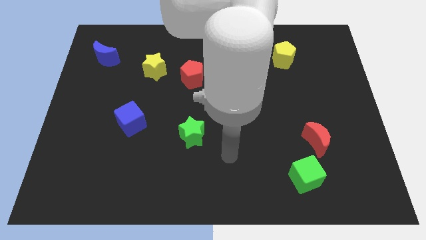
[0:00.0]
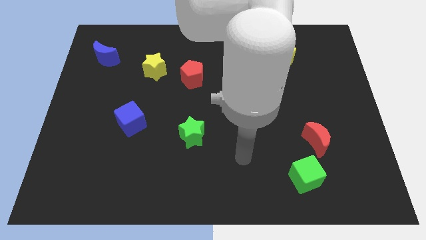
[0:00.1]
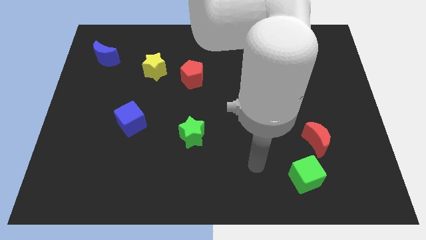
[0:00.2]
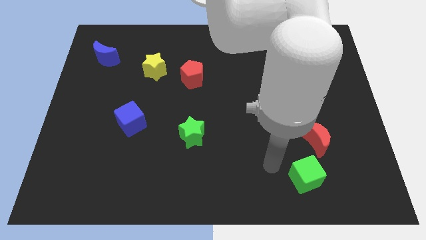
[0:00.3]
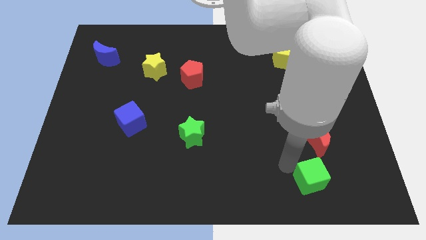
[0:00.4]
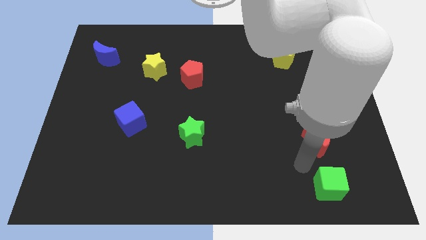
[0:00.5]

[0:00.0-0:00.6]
move the red moon away from the green cube

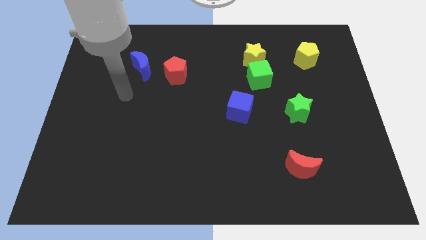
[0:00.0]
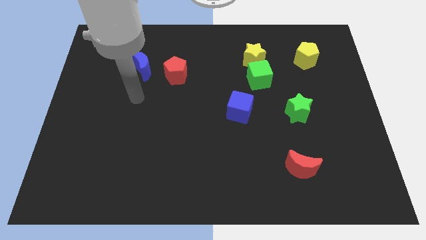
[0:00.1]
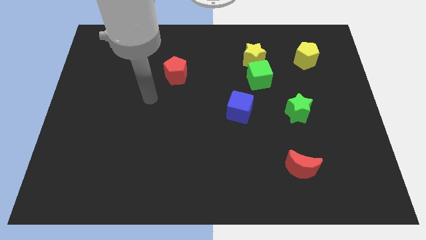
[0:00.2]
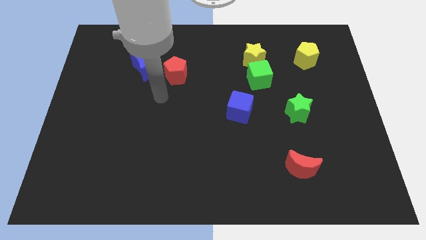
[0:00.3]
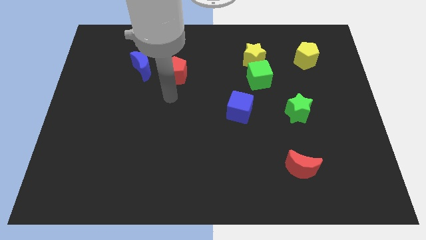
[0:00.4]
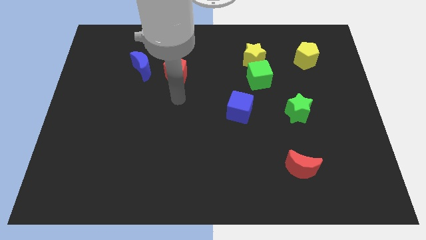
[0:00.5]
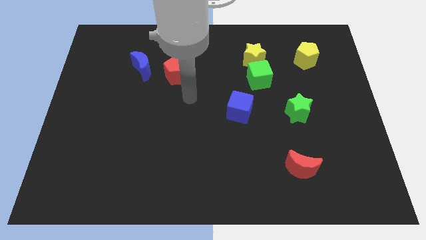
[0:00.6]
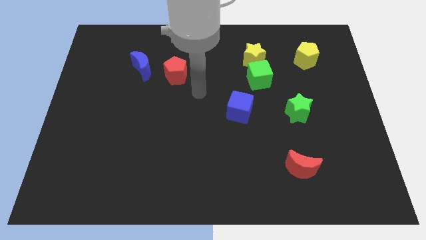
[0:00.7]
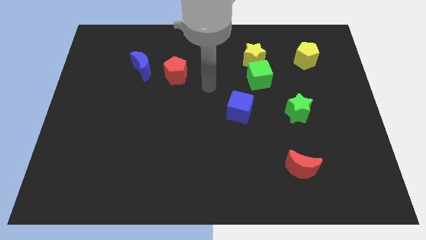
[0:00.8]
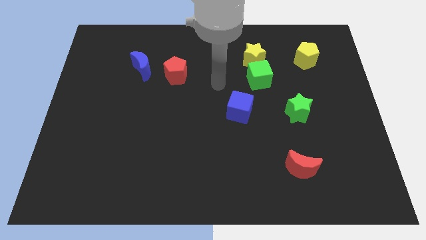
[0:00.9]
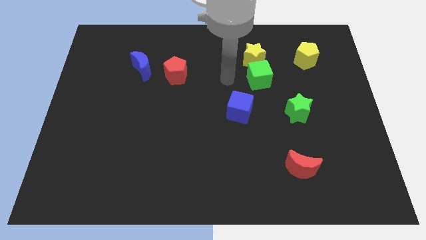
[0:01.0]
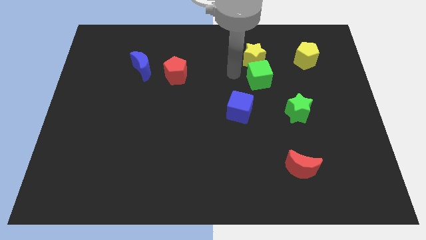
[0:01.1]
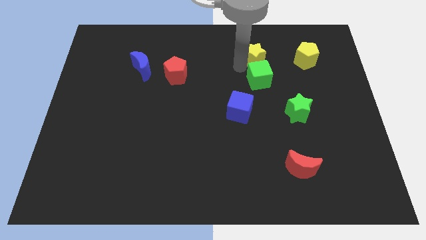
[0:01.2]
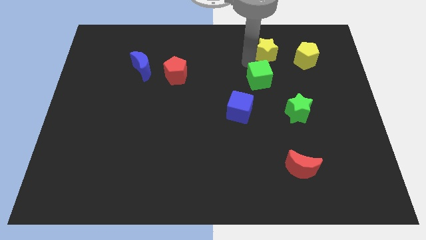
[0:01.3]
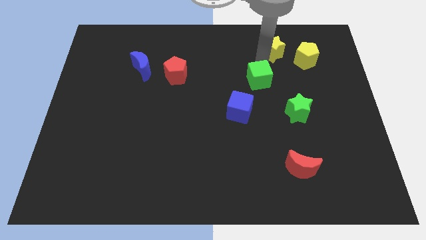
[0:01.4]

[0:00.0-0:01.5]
move the green cube away from the yellow star

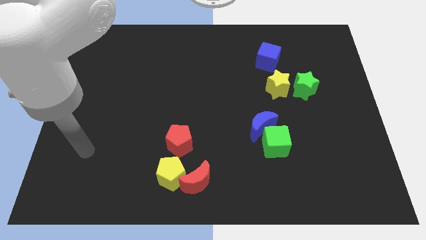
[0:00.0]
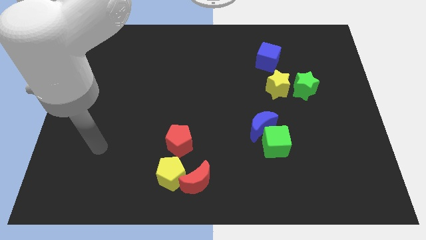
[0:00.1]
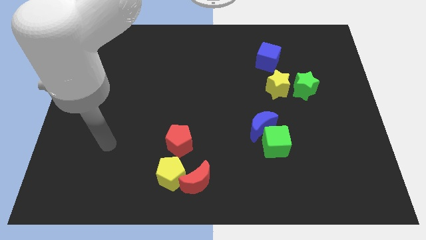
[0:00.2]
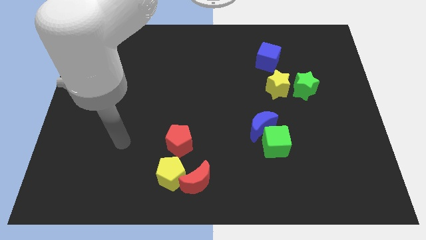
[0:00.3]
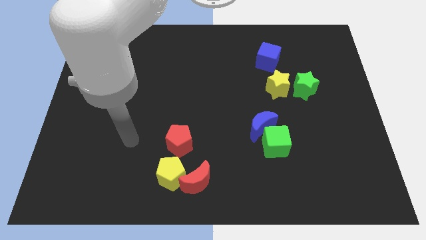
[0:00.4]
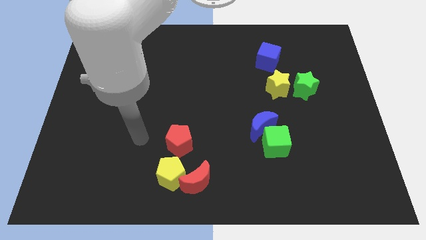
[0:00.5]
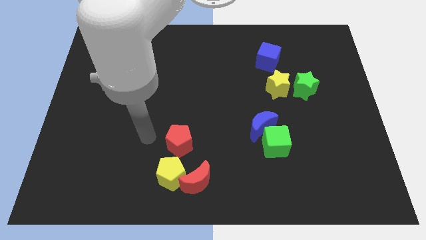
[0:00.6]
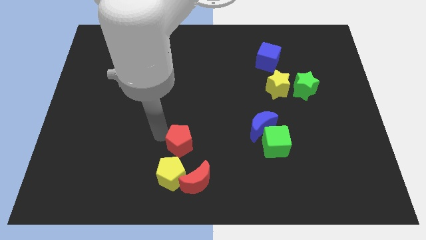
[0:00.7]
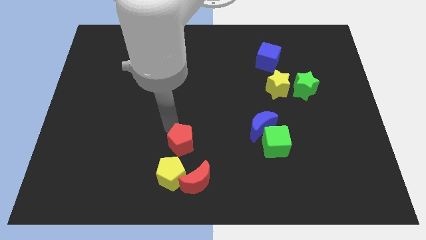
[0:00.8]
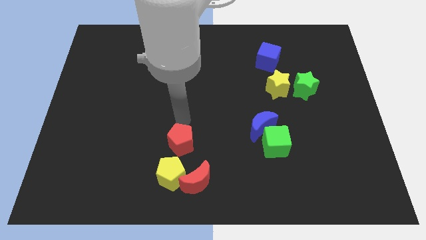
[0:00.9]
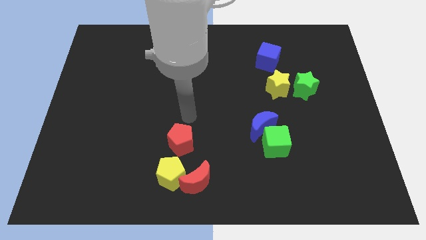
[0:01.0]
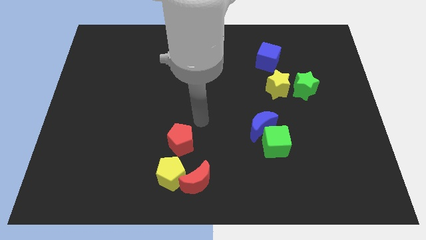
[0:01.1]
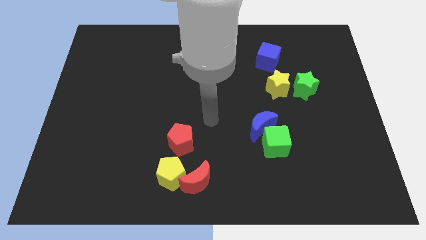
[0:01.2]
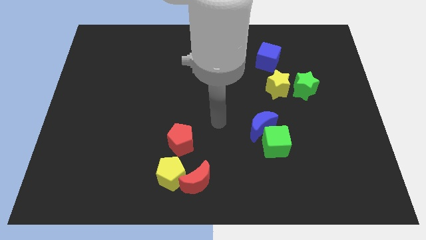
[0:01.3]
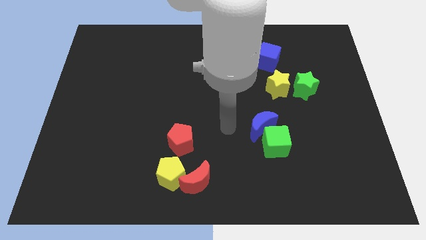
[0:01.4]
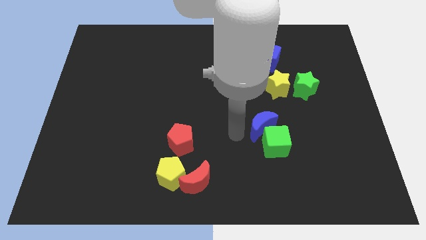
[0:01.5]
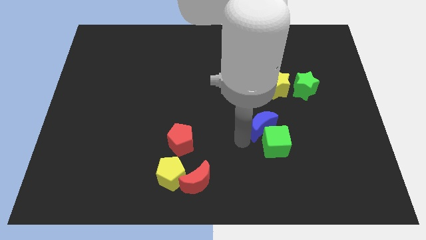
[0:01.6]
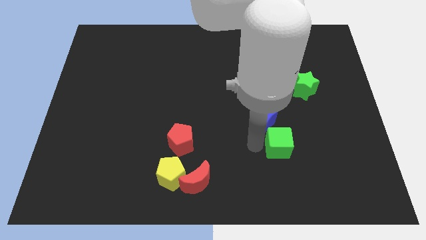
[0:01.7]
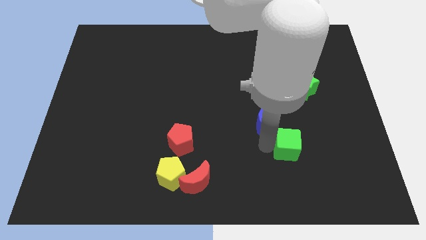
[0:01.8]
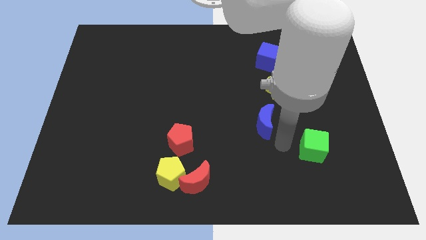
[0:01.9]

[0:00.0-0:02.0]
pull the blue moon apart from the green cube

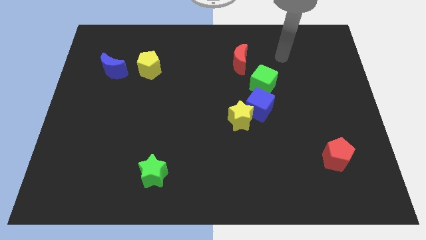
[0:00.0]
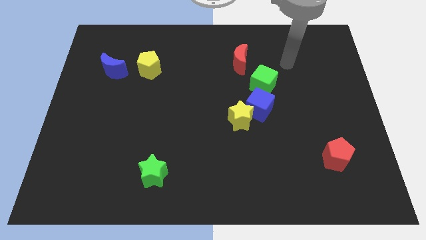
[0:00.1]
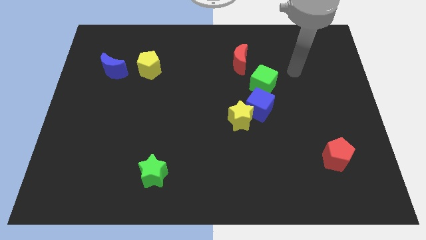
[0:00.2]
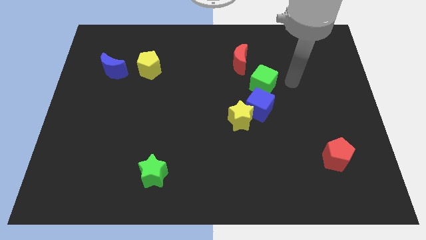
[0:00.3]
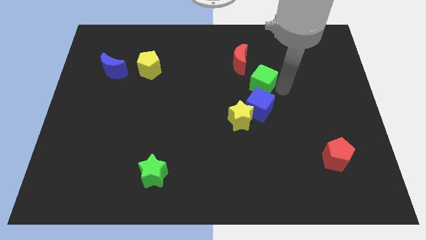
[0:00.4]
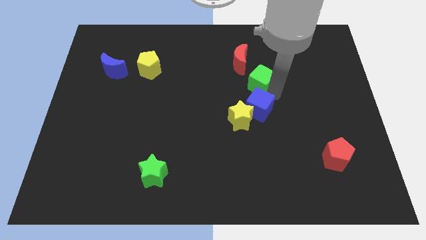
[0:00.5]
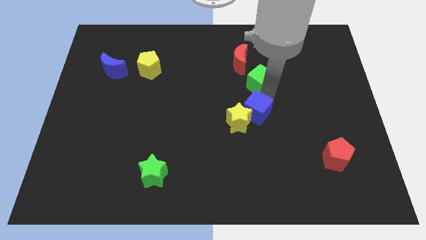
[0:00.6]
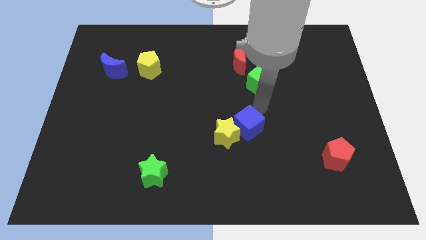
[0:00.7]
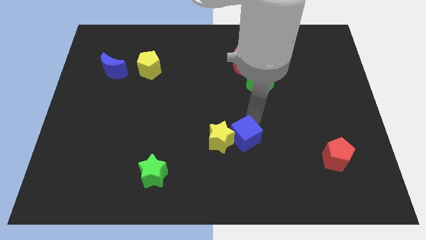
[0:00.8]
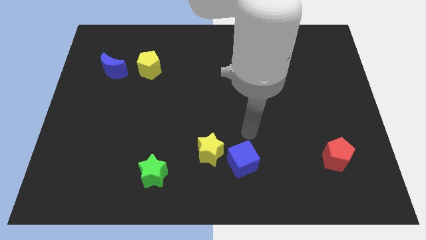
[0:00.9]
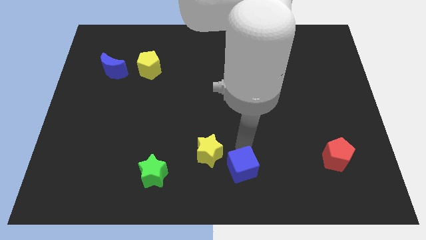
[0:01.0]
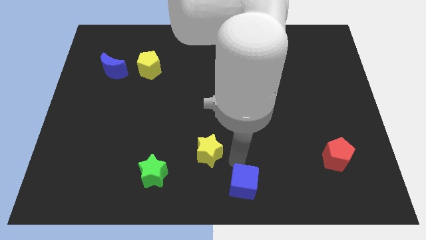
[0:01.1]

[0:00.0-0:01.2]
pull the yellow star apart from the blue cube

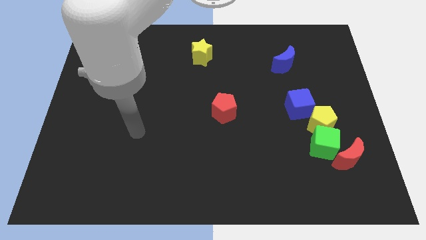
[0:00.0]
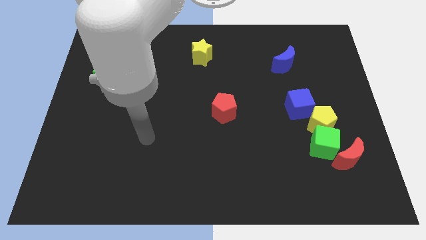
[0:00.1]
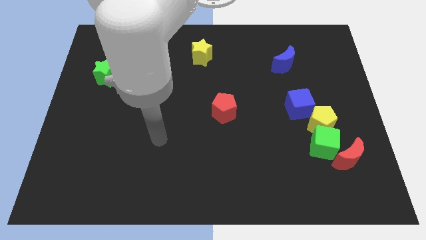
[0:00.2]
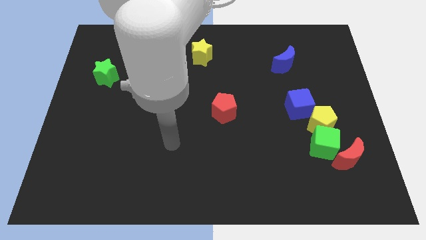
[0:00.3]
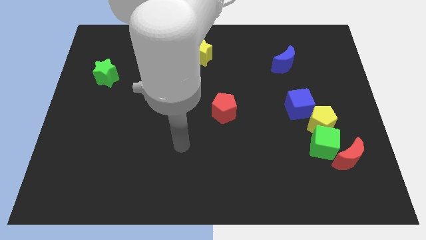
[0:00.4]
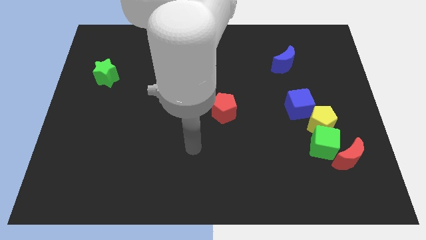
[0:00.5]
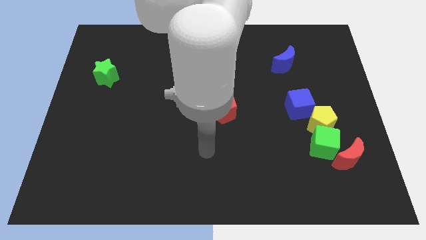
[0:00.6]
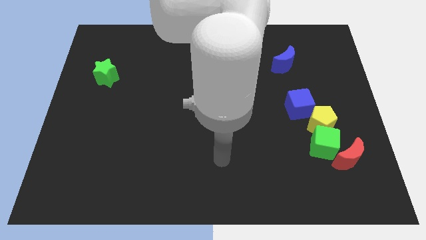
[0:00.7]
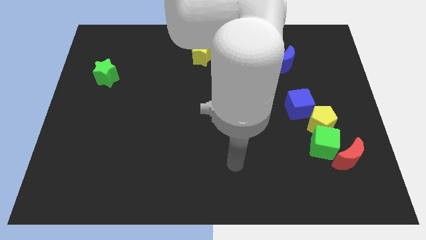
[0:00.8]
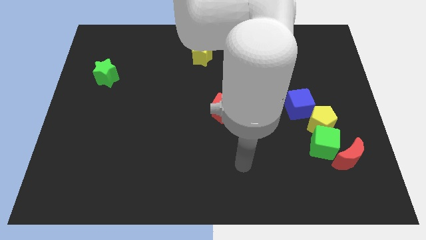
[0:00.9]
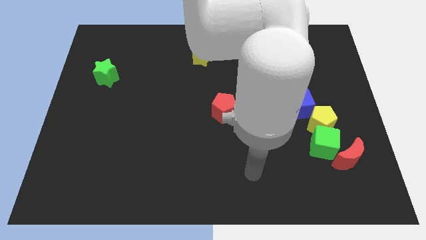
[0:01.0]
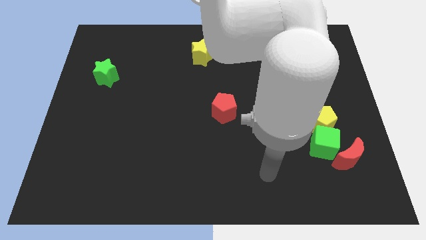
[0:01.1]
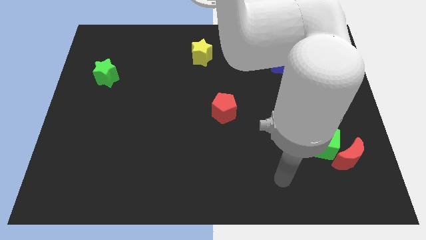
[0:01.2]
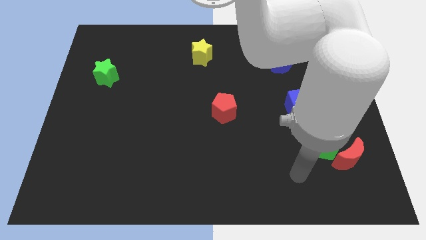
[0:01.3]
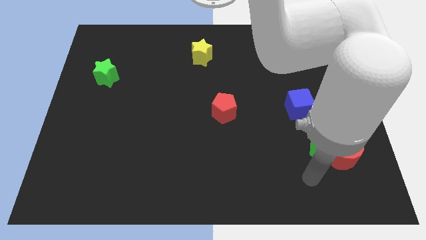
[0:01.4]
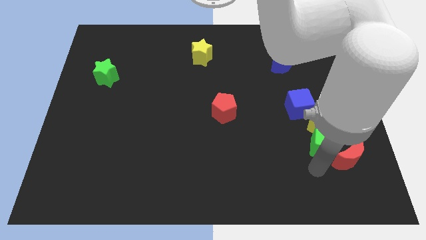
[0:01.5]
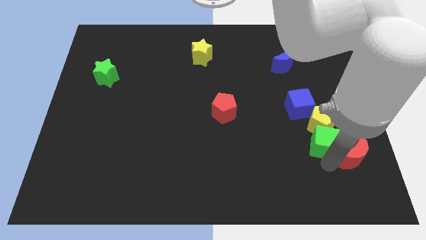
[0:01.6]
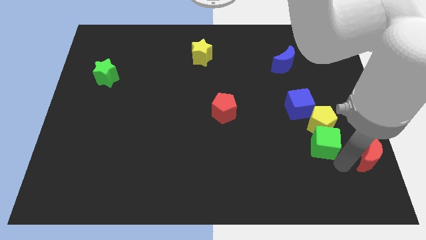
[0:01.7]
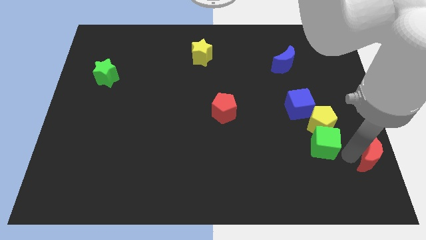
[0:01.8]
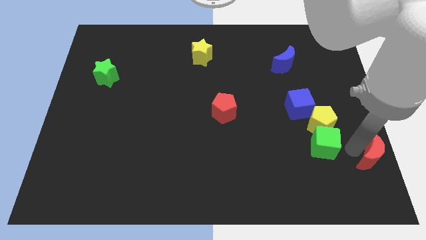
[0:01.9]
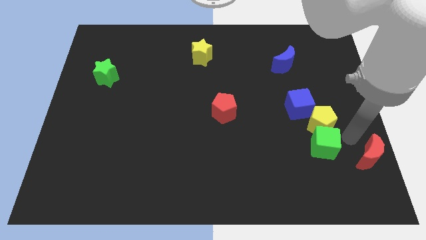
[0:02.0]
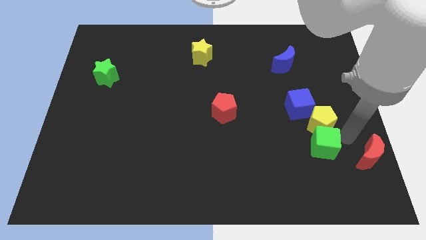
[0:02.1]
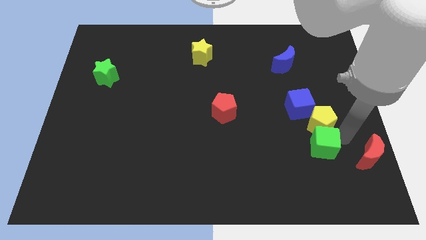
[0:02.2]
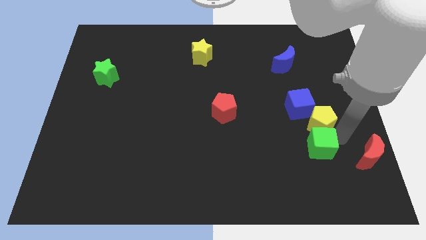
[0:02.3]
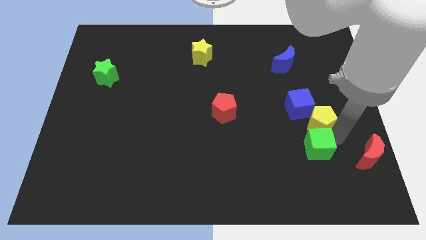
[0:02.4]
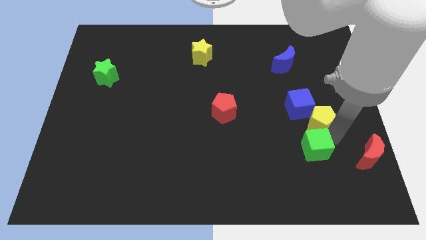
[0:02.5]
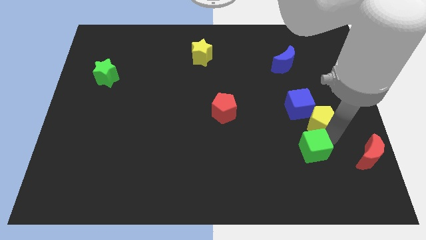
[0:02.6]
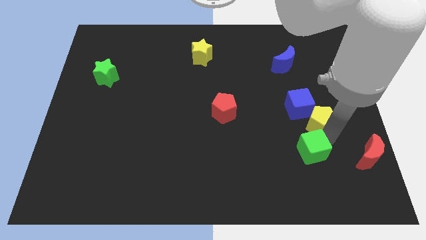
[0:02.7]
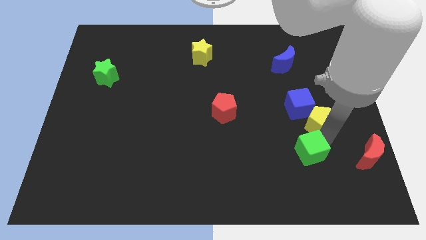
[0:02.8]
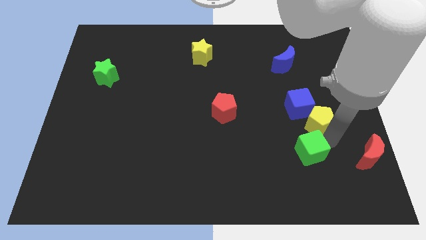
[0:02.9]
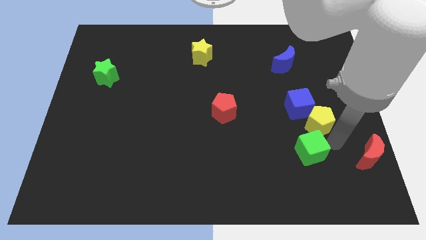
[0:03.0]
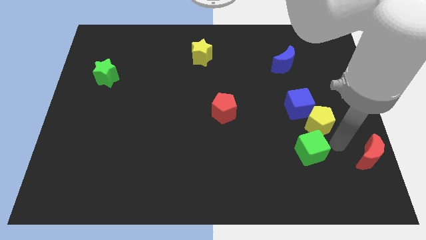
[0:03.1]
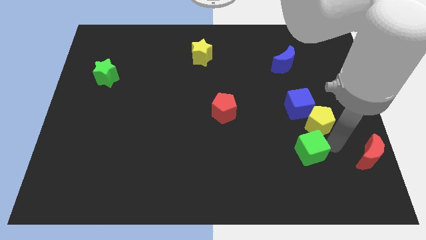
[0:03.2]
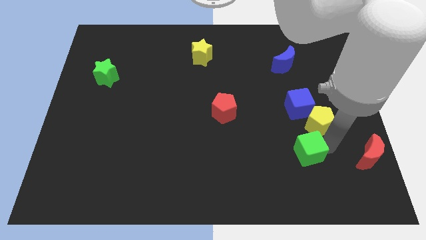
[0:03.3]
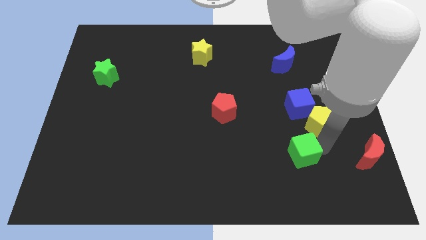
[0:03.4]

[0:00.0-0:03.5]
pull the green cube apart from the yellow pentagon and red moon

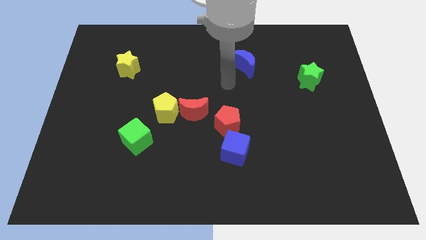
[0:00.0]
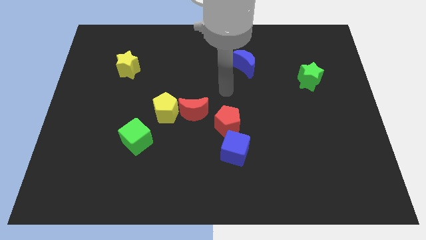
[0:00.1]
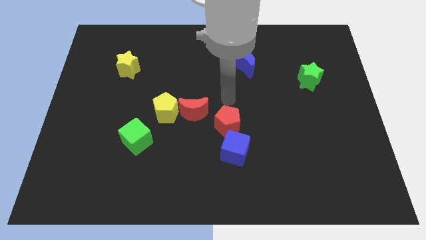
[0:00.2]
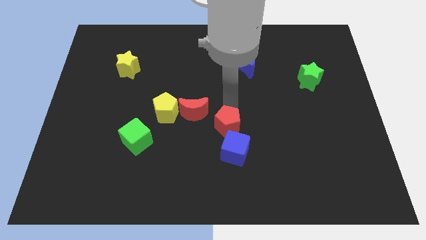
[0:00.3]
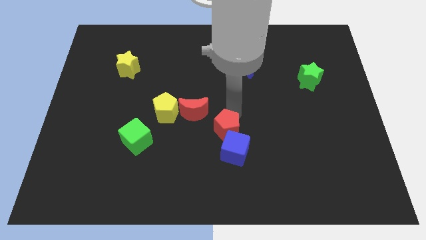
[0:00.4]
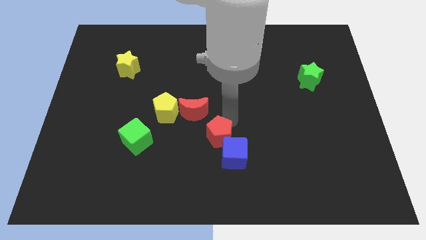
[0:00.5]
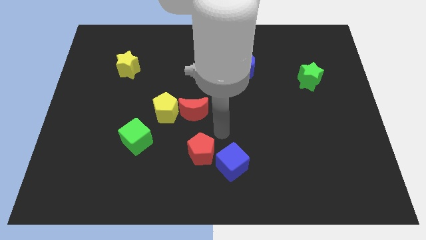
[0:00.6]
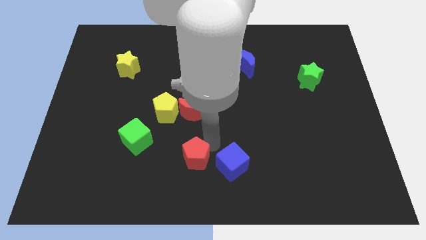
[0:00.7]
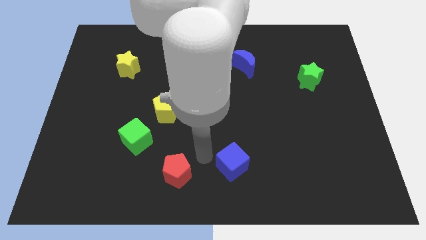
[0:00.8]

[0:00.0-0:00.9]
pull the blue cube apart from the red pentagon
